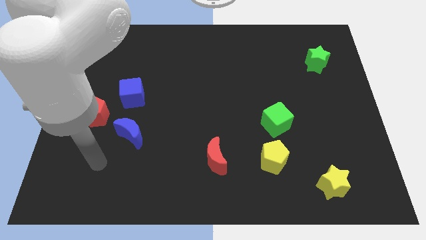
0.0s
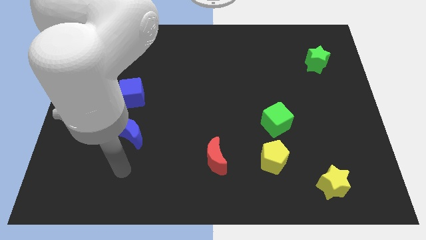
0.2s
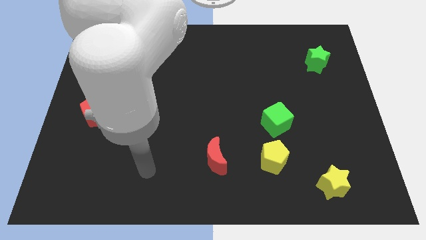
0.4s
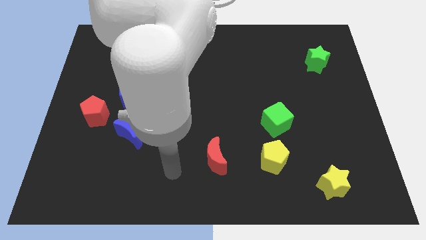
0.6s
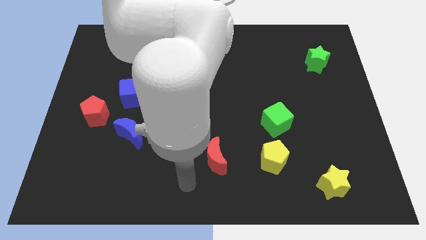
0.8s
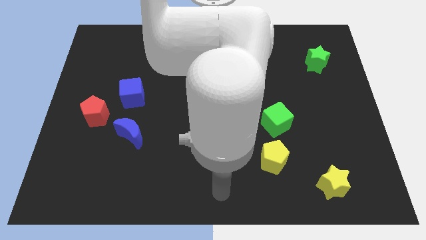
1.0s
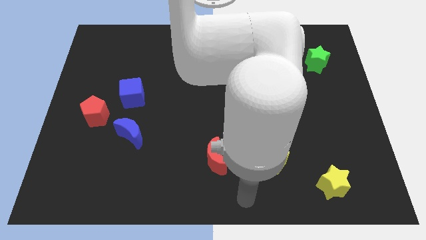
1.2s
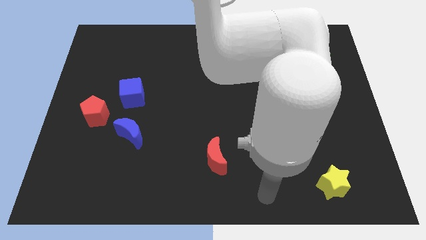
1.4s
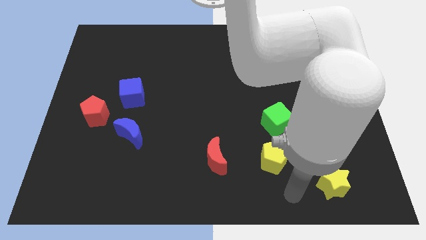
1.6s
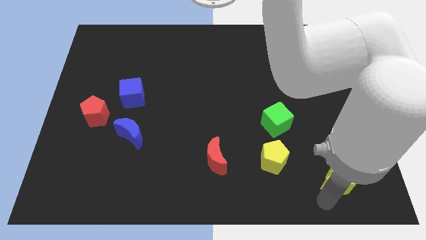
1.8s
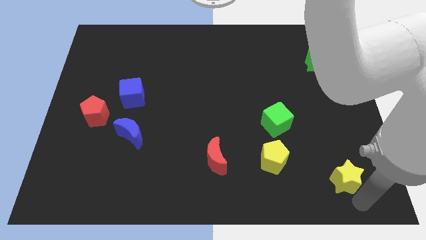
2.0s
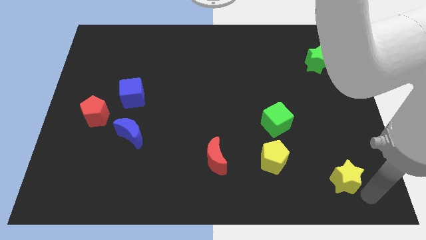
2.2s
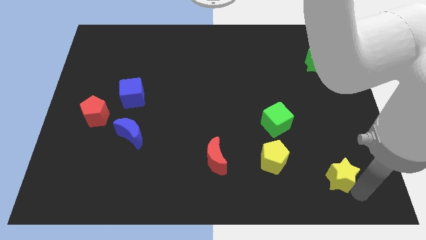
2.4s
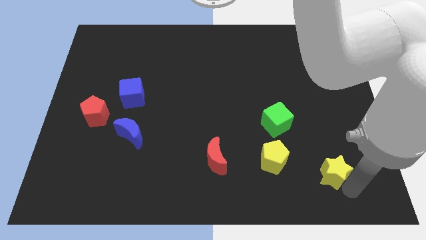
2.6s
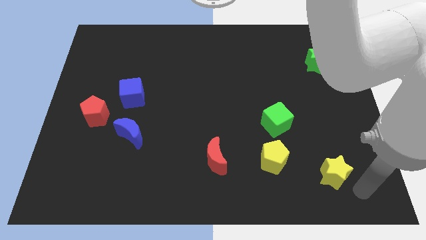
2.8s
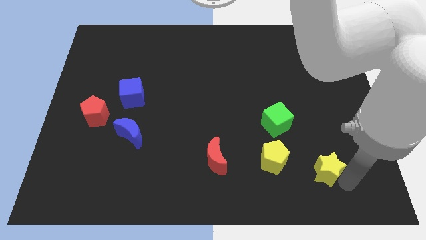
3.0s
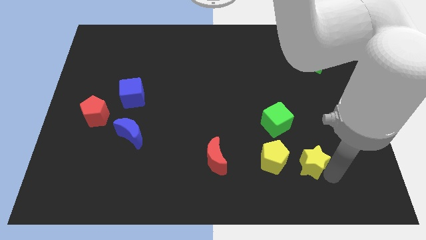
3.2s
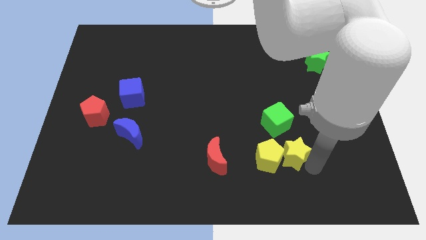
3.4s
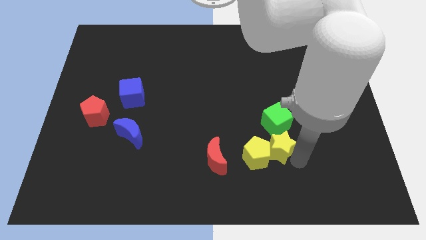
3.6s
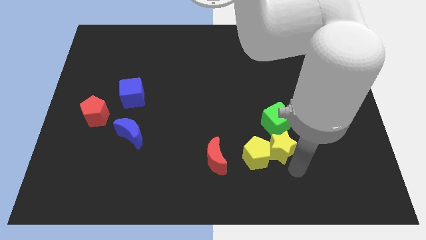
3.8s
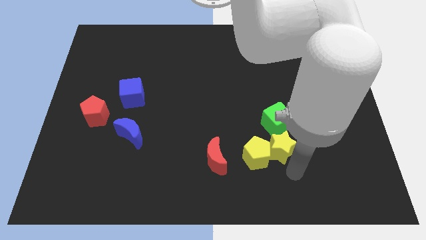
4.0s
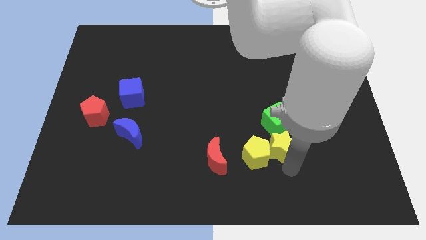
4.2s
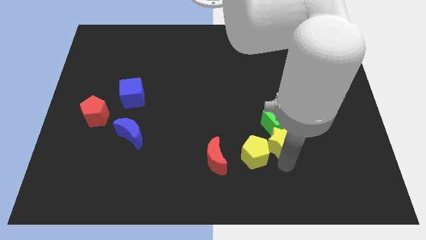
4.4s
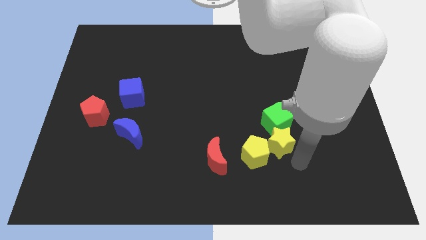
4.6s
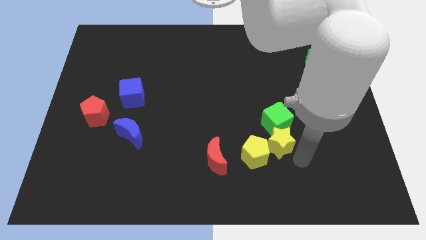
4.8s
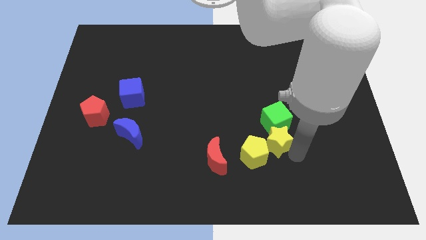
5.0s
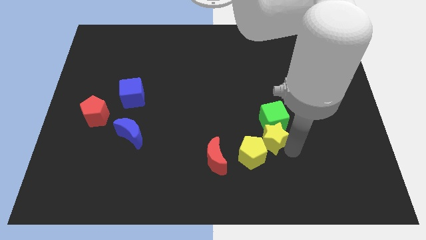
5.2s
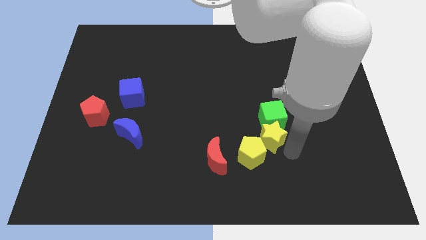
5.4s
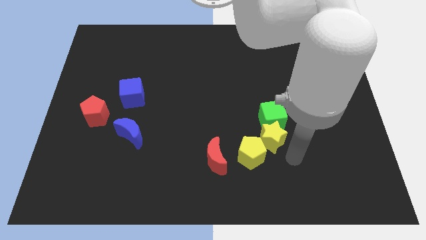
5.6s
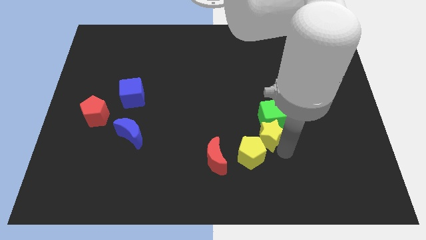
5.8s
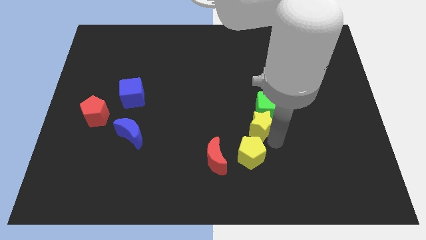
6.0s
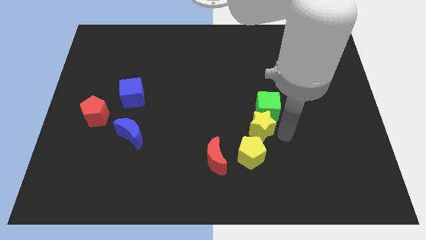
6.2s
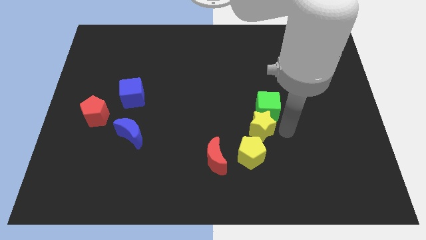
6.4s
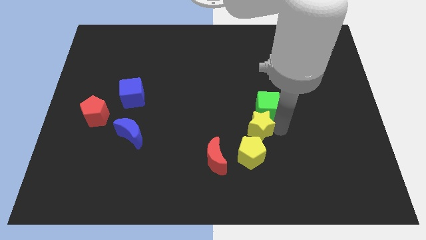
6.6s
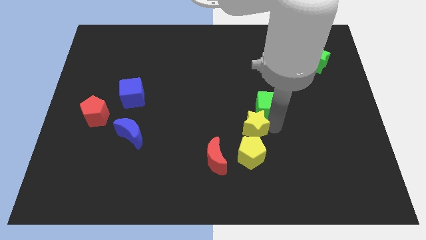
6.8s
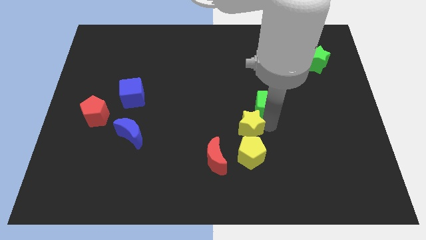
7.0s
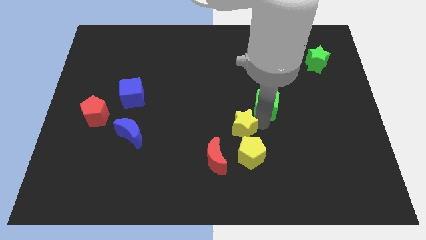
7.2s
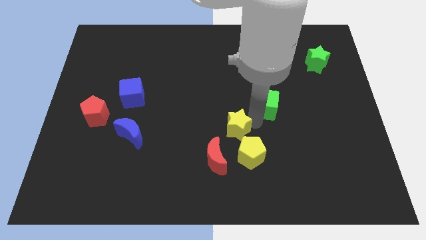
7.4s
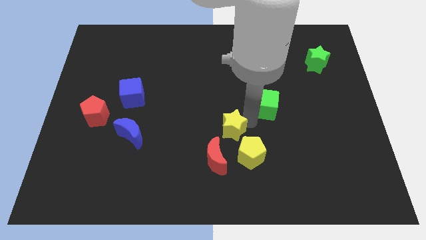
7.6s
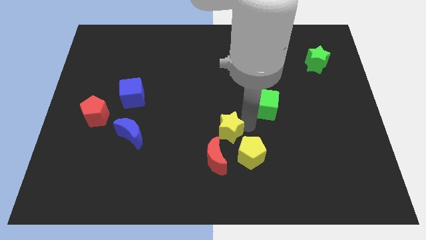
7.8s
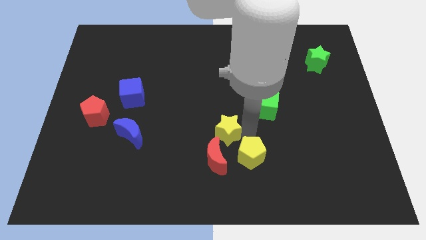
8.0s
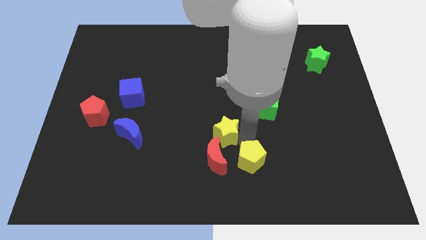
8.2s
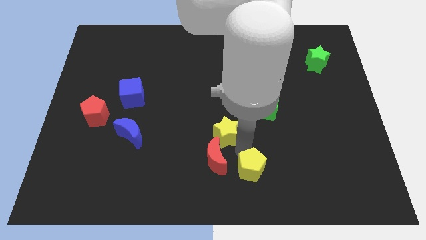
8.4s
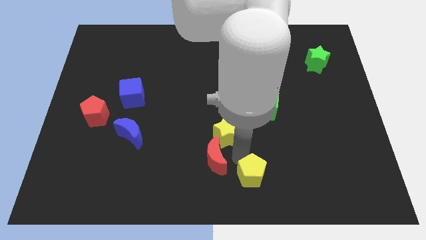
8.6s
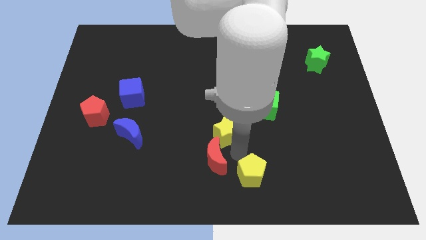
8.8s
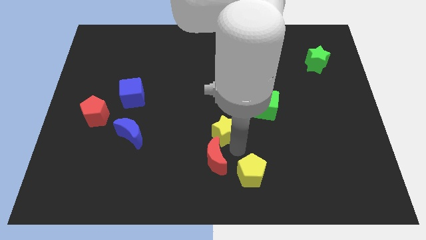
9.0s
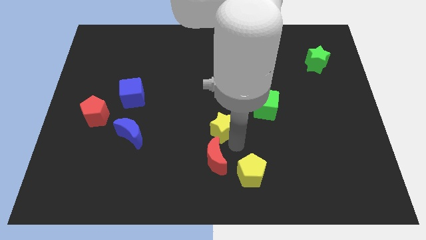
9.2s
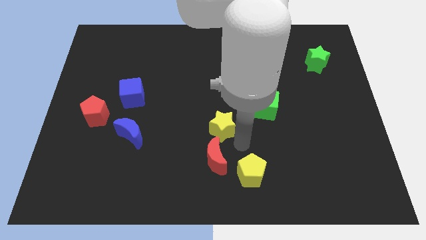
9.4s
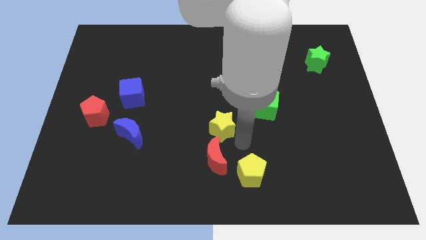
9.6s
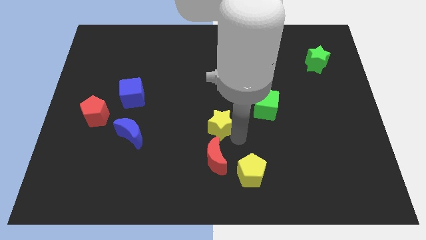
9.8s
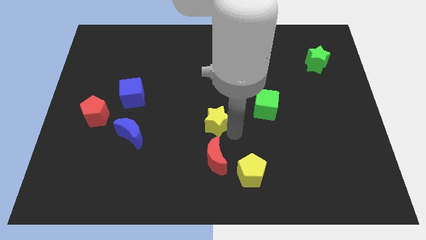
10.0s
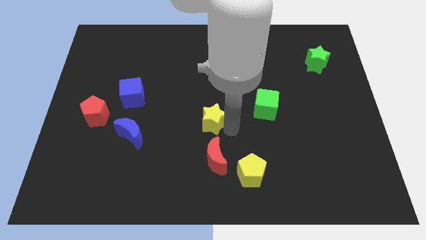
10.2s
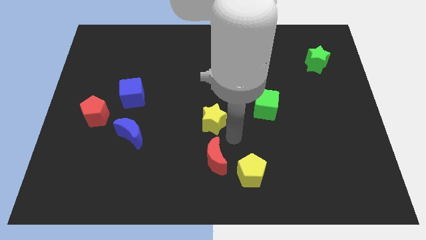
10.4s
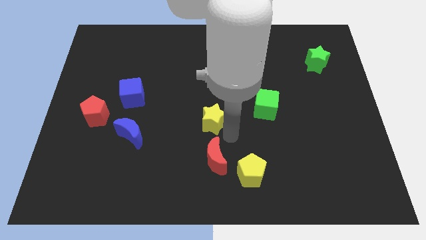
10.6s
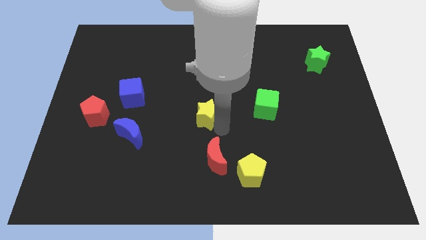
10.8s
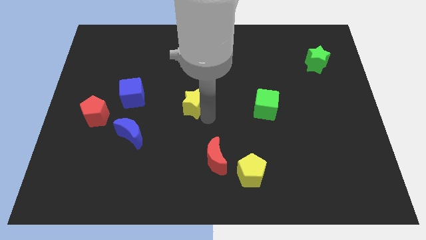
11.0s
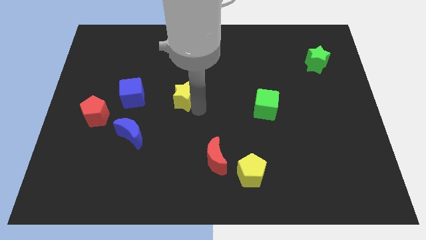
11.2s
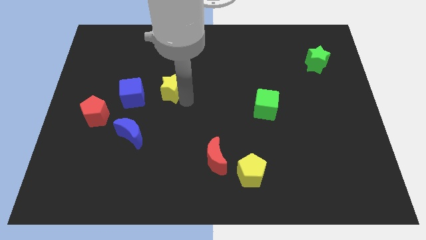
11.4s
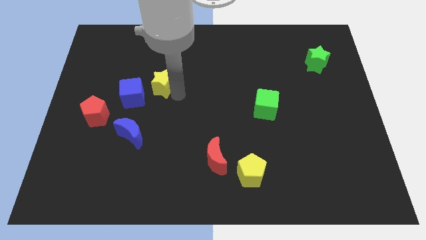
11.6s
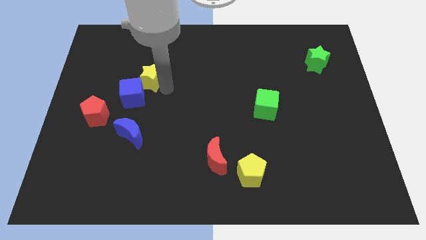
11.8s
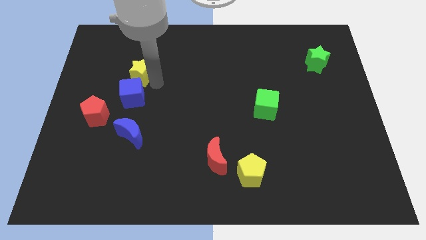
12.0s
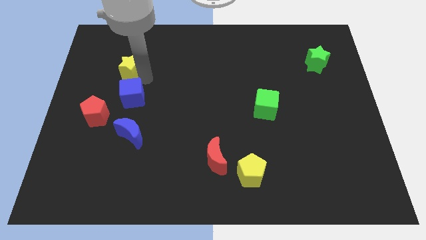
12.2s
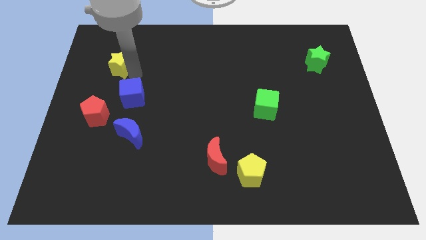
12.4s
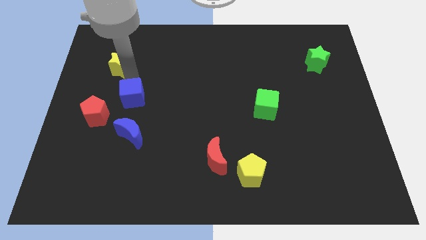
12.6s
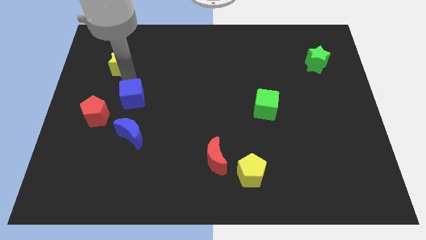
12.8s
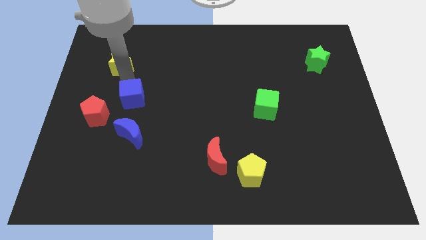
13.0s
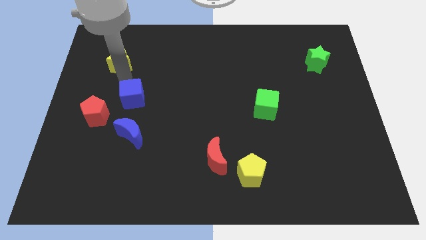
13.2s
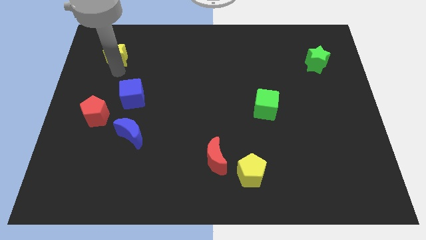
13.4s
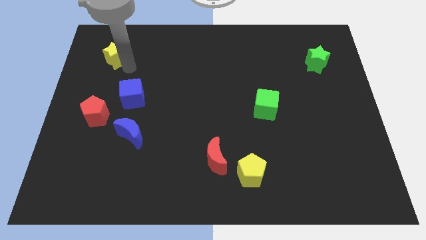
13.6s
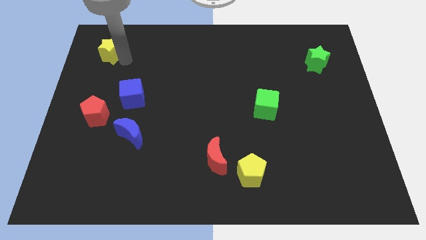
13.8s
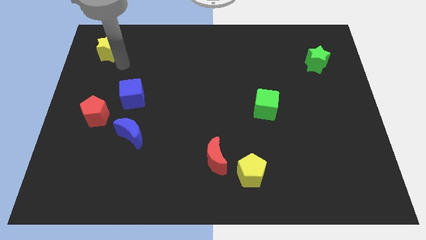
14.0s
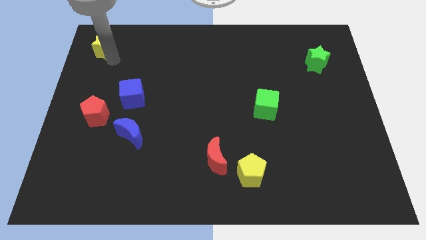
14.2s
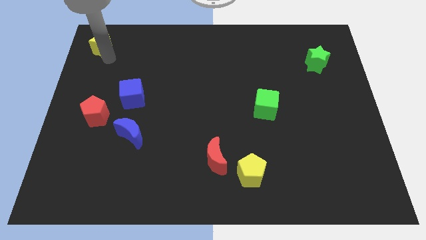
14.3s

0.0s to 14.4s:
put the yellow star to the top left
